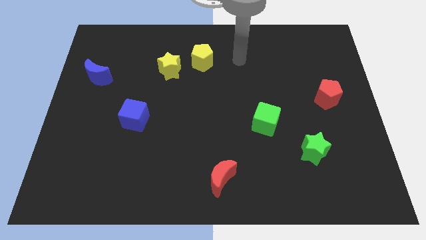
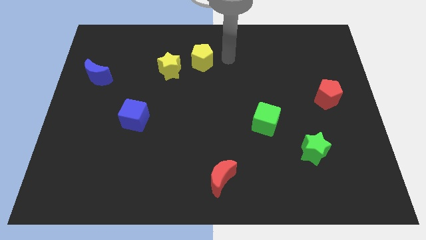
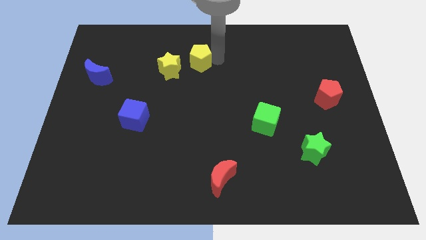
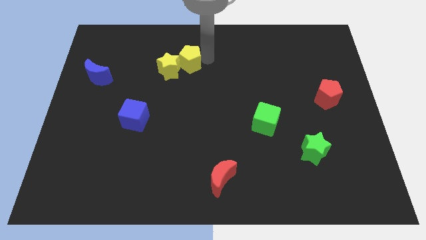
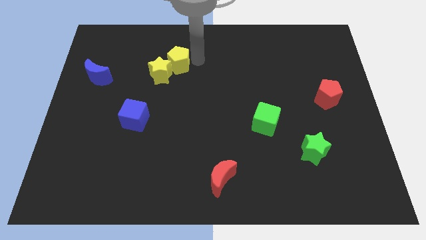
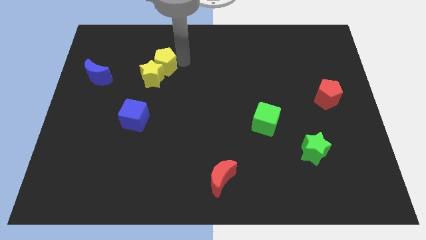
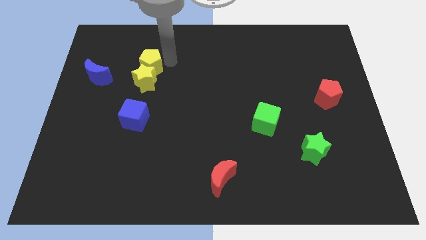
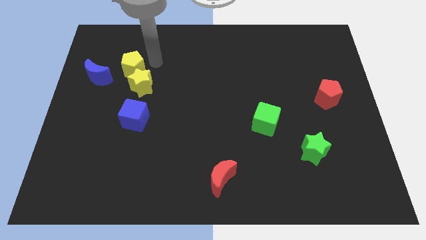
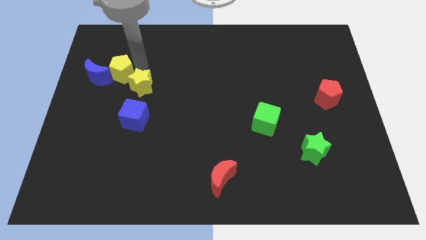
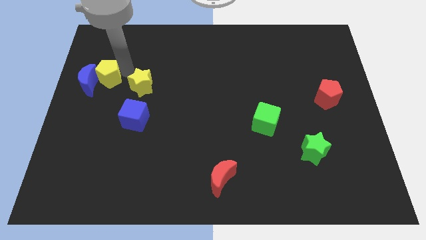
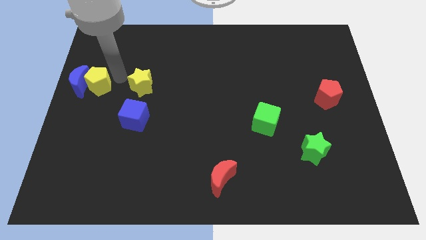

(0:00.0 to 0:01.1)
move the yellow star away from the yellow pentagon

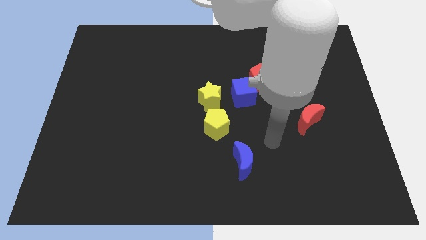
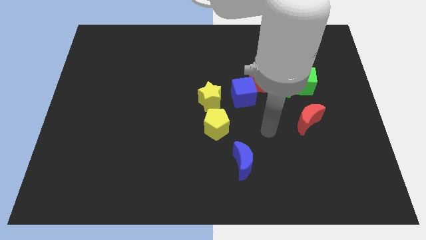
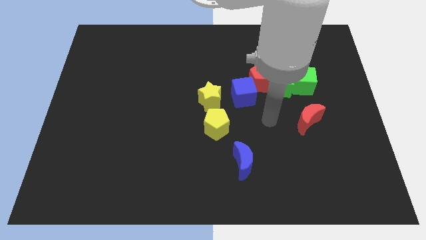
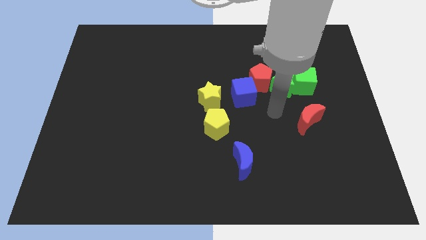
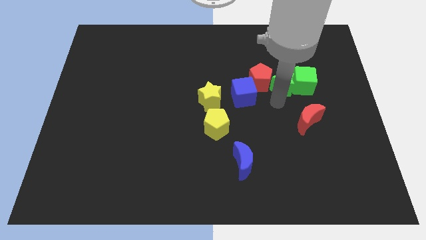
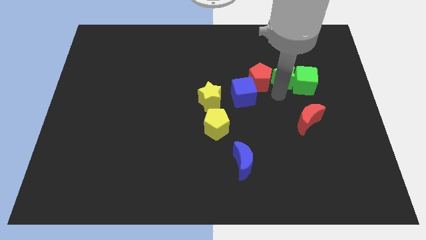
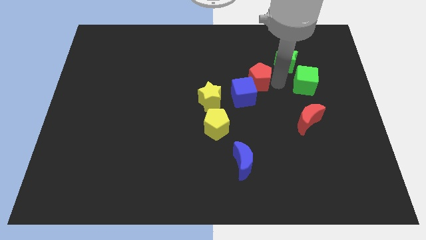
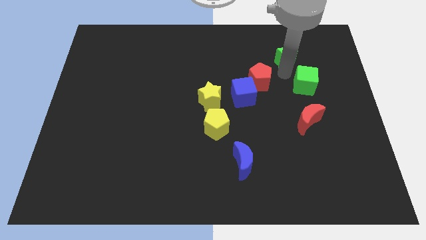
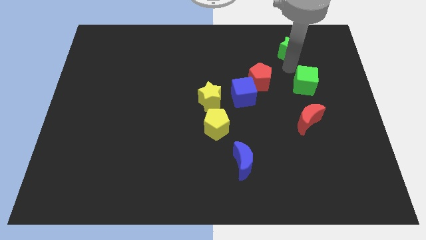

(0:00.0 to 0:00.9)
separate the green cube from the green star

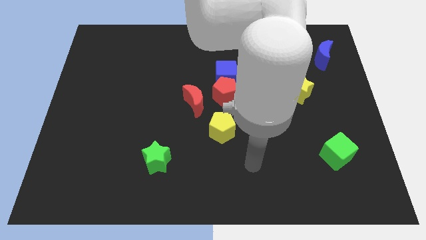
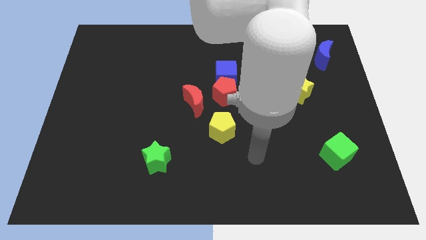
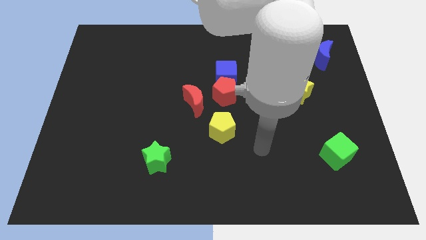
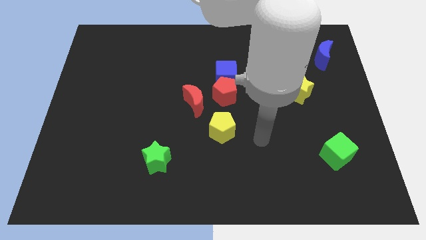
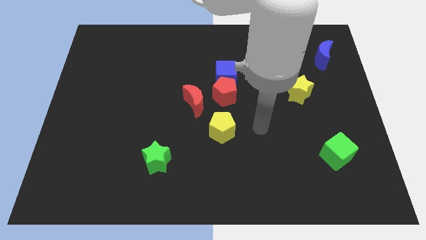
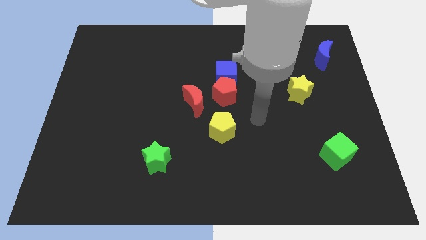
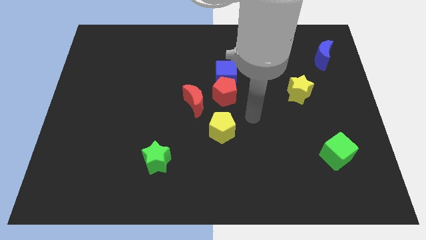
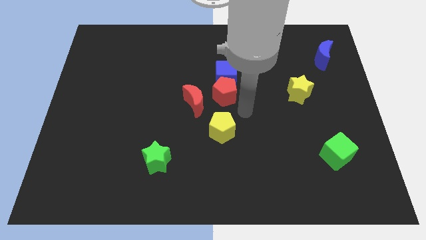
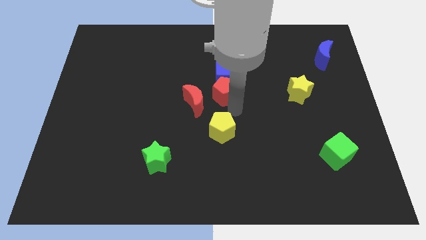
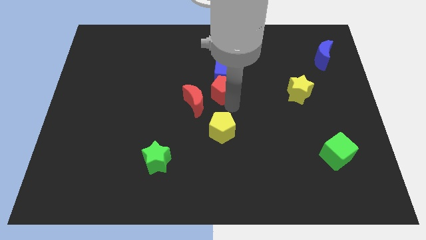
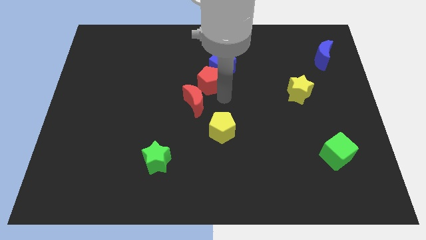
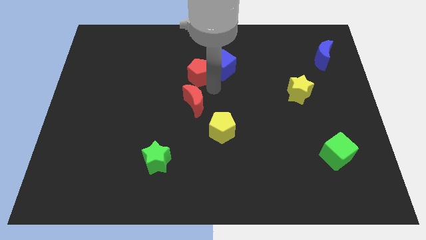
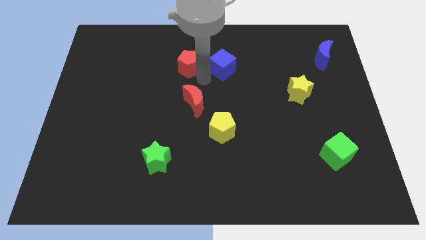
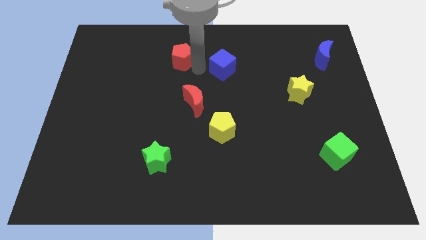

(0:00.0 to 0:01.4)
move the blue cube away from the red pentagon

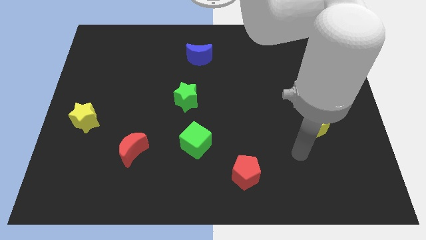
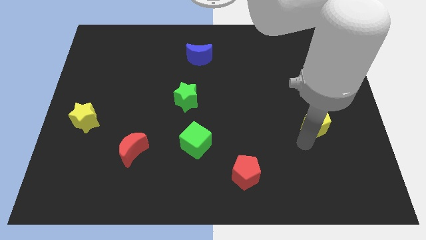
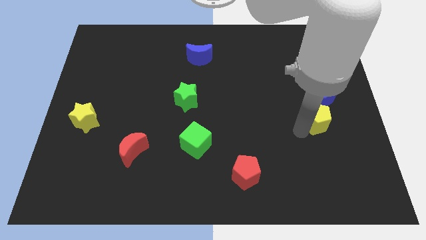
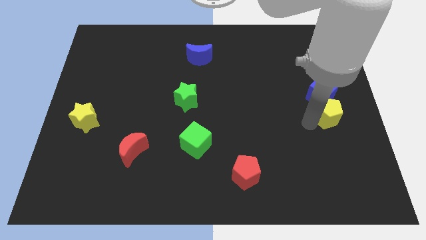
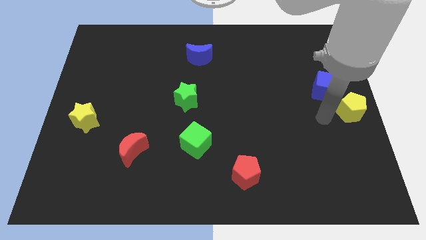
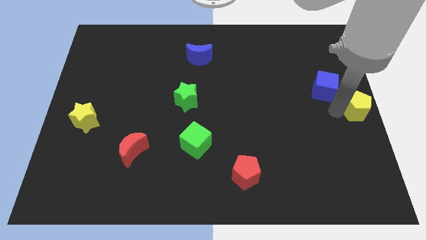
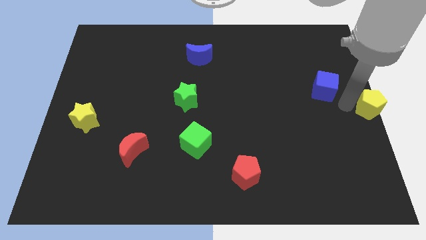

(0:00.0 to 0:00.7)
pull the blue cube apart from the yellow pentagon

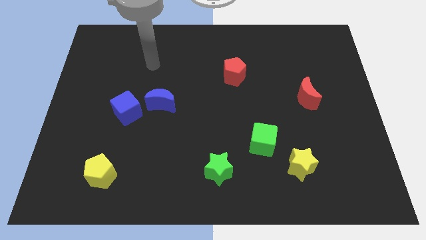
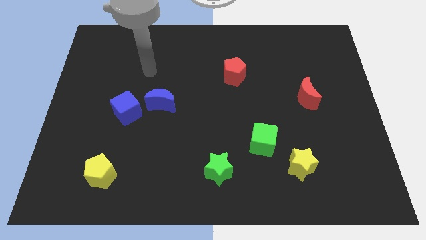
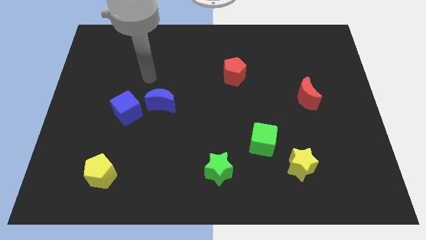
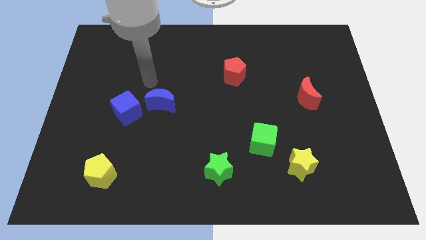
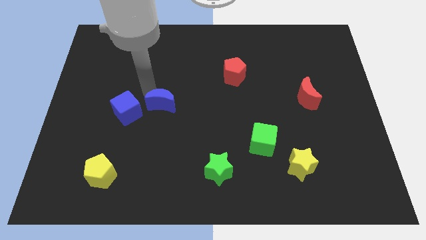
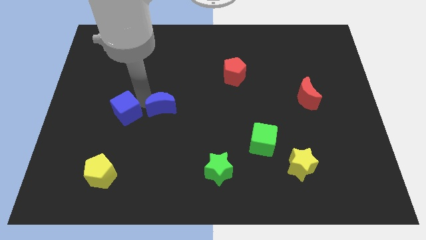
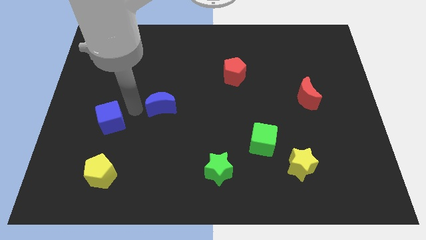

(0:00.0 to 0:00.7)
move the blue moon away from the blue cube

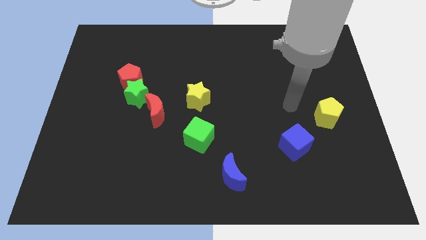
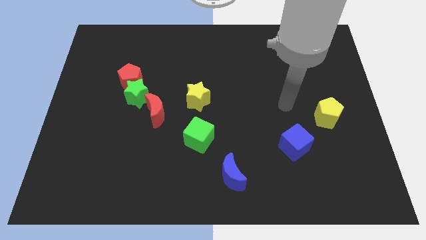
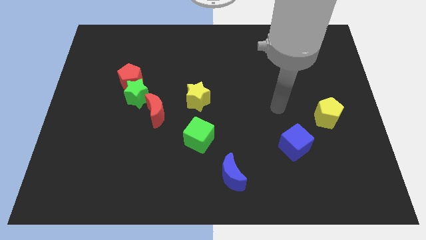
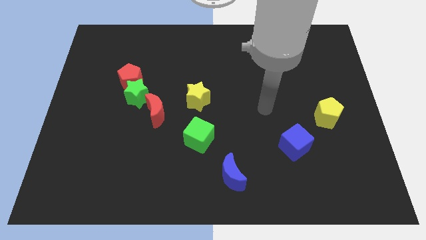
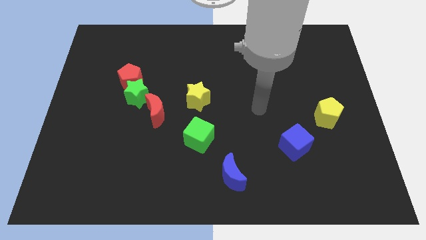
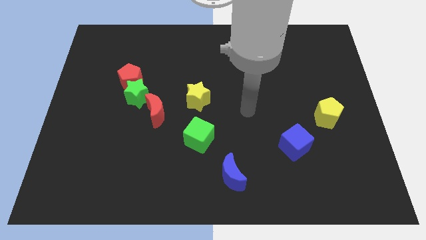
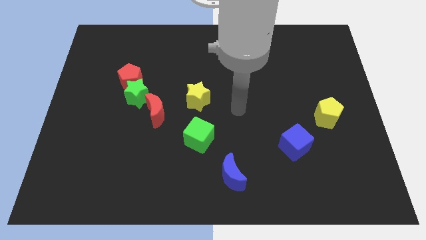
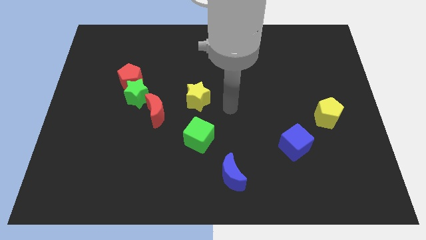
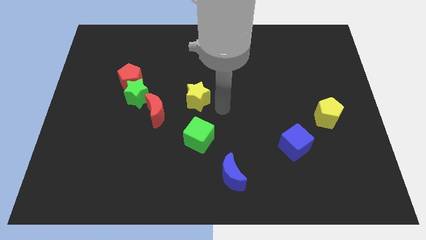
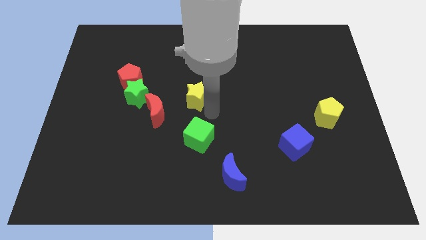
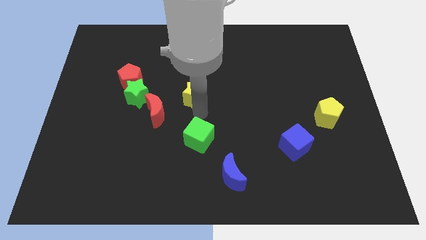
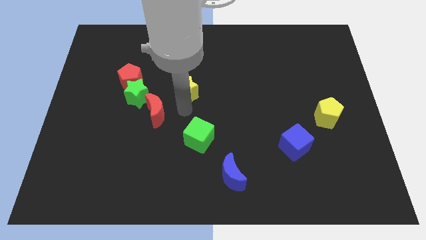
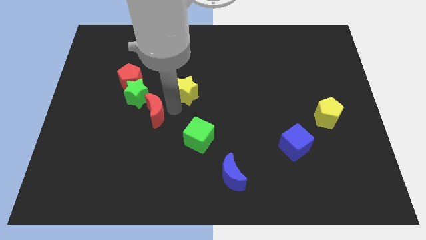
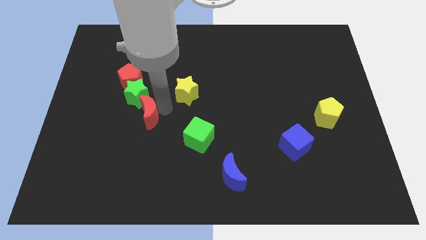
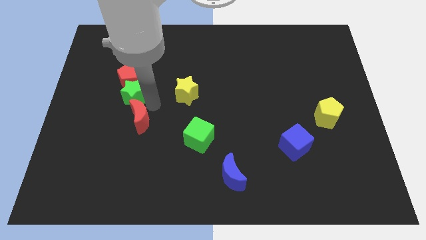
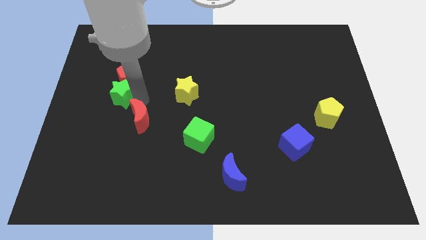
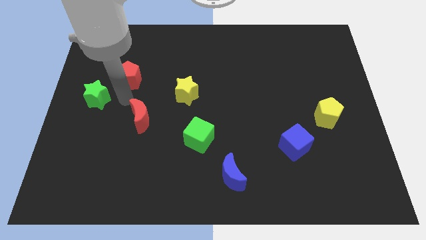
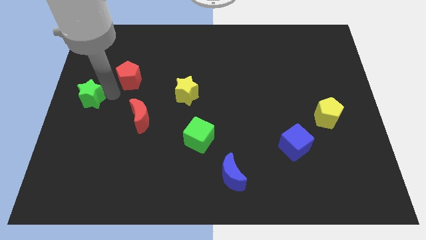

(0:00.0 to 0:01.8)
move the red pentagon away from the green star

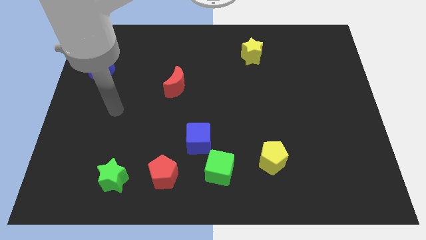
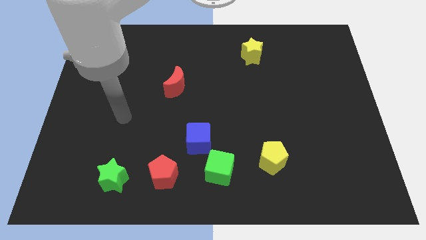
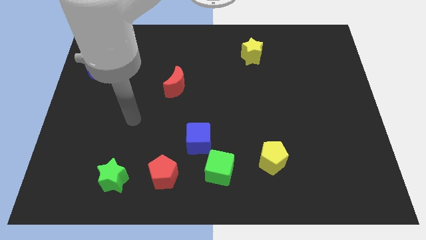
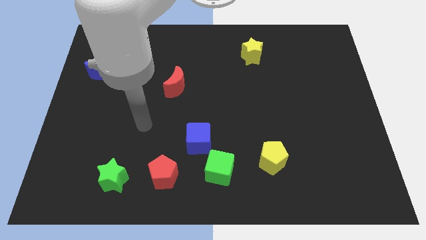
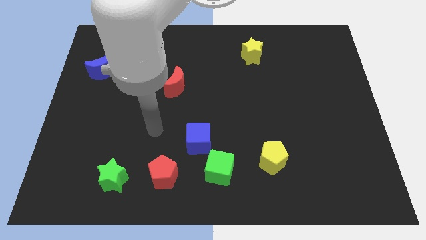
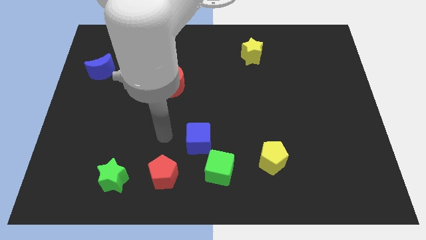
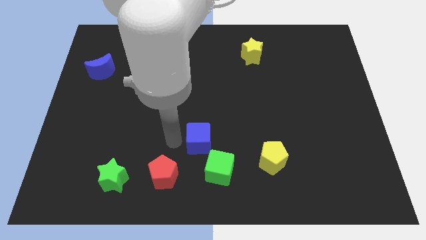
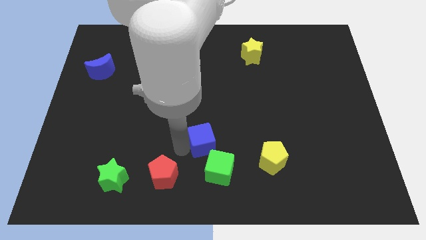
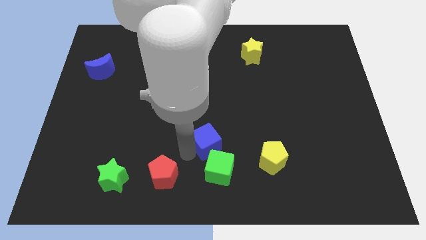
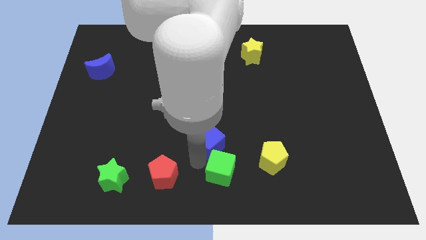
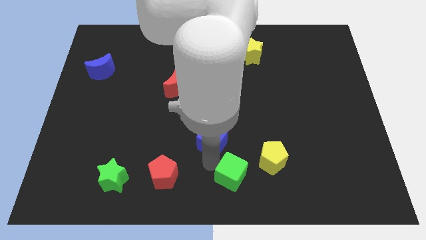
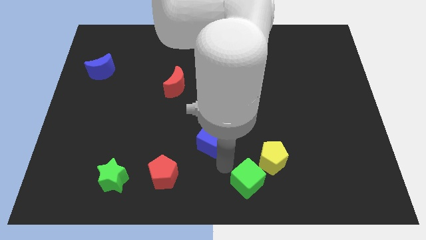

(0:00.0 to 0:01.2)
move the blue cube away from the green cube

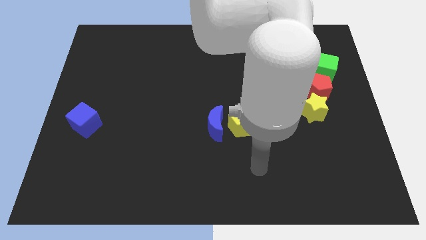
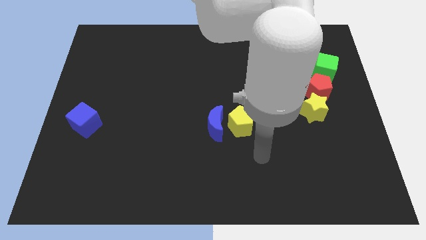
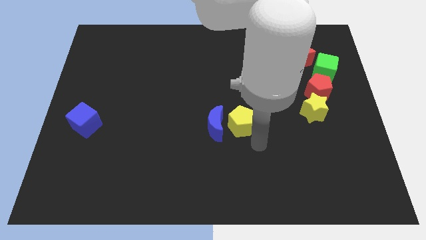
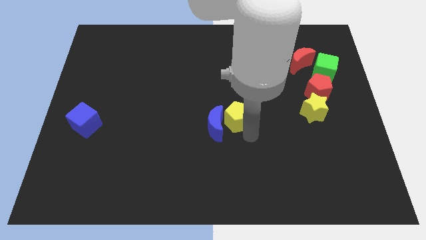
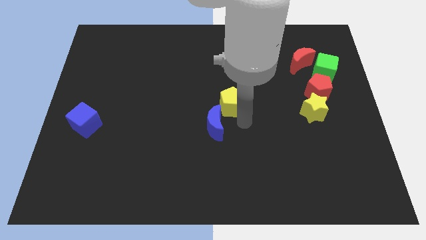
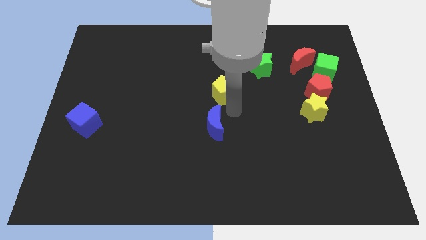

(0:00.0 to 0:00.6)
separate the blue moon from the yellow pentagon

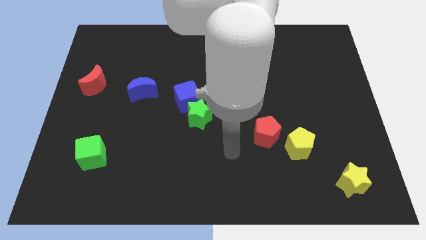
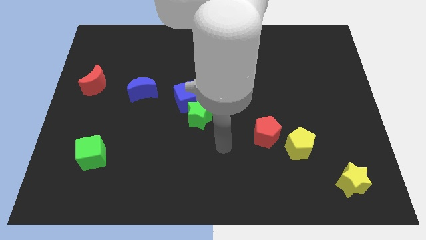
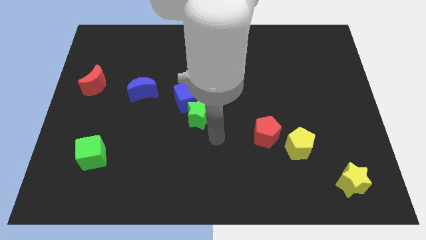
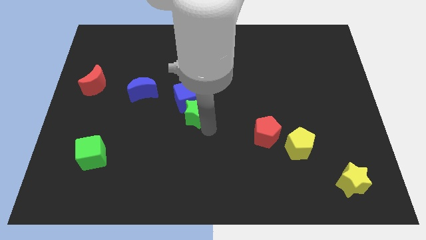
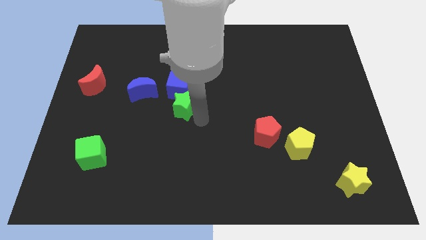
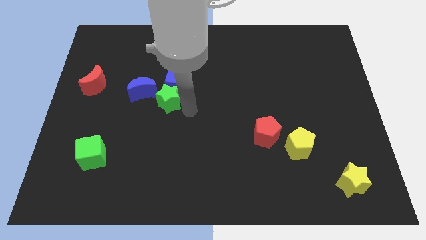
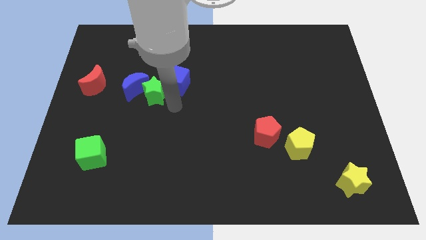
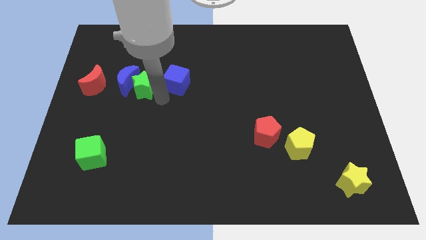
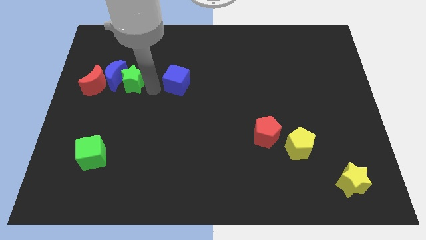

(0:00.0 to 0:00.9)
separate the blue cube from the green star
